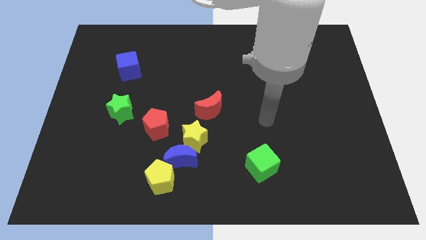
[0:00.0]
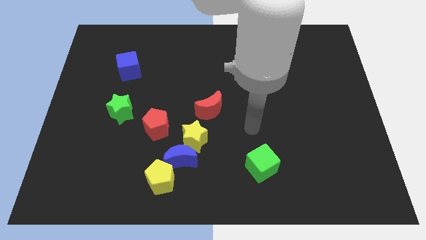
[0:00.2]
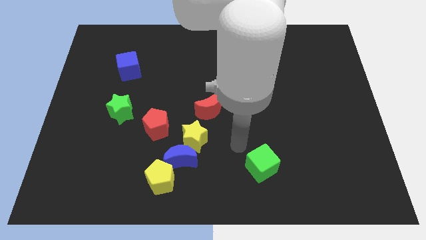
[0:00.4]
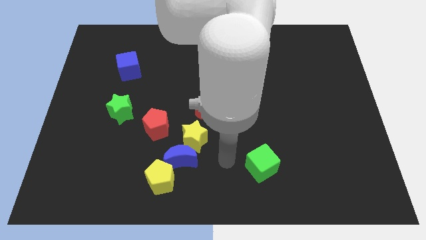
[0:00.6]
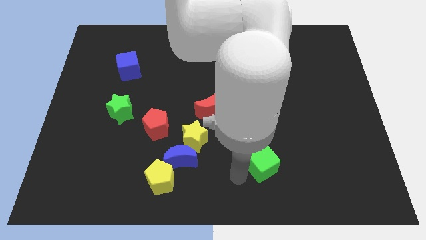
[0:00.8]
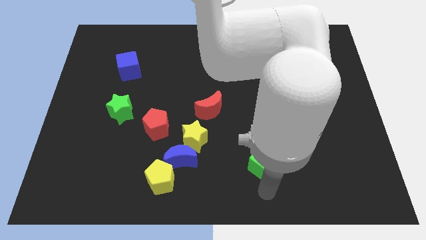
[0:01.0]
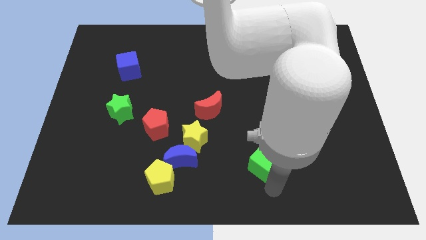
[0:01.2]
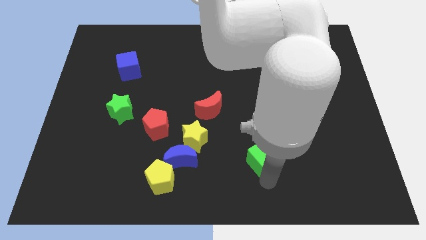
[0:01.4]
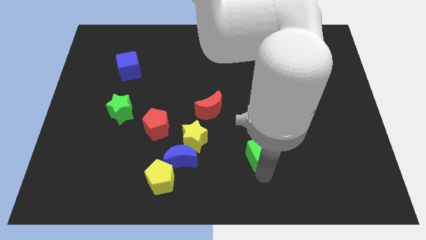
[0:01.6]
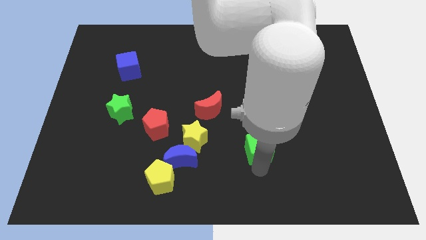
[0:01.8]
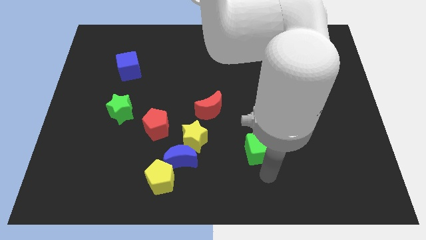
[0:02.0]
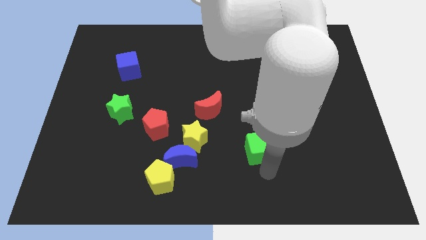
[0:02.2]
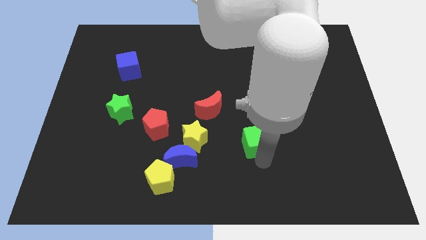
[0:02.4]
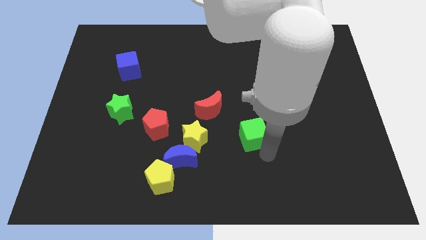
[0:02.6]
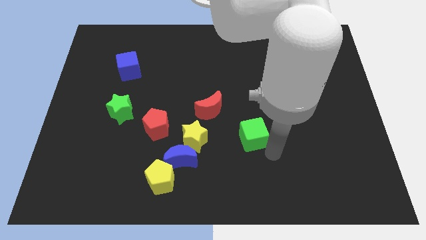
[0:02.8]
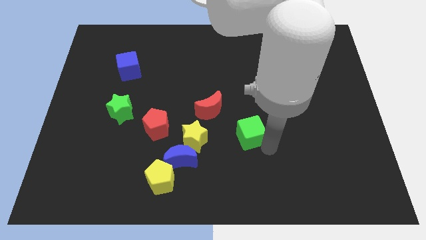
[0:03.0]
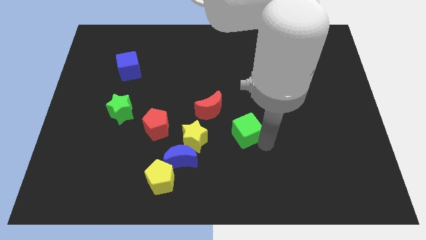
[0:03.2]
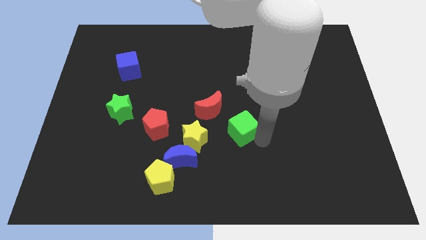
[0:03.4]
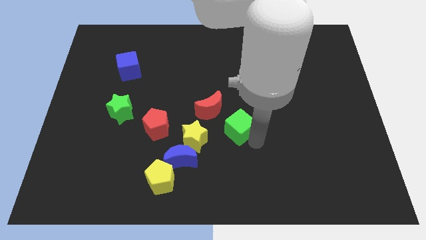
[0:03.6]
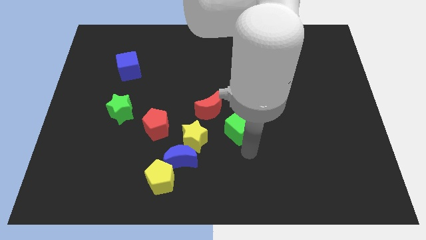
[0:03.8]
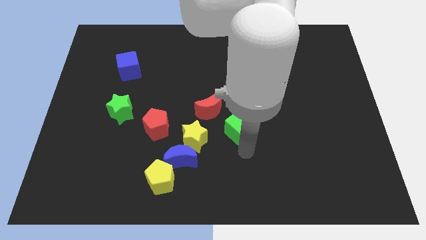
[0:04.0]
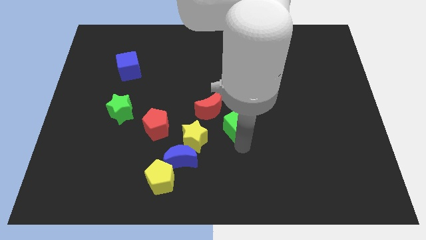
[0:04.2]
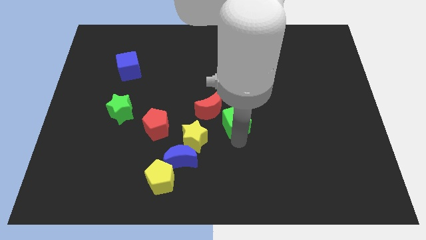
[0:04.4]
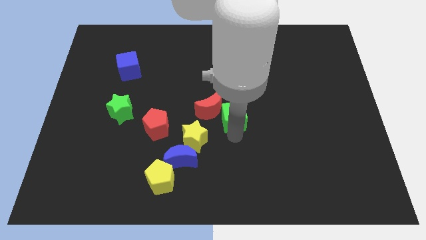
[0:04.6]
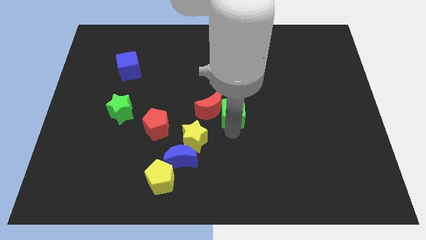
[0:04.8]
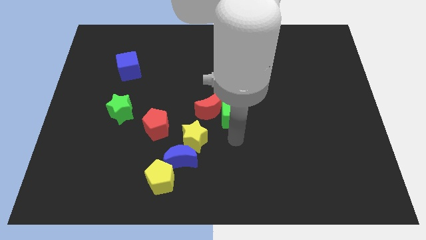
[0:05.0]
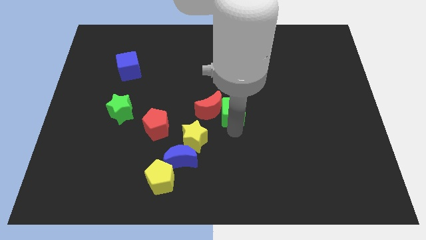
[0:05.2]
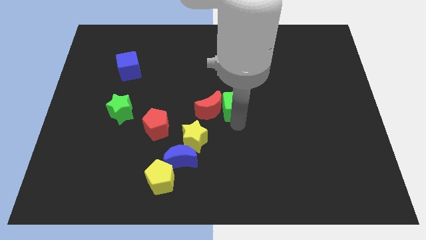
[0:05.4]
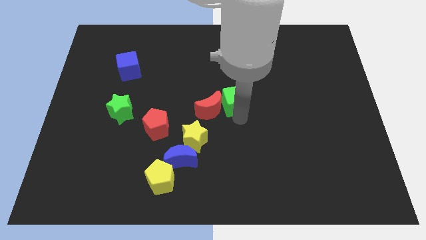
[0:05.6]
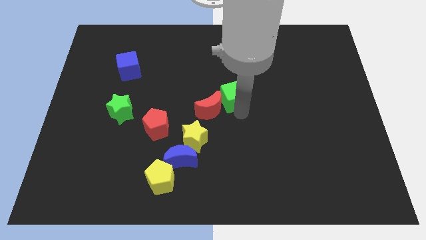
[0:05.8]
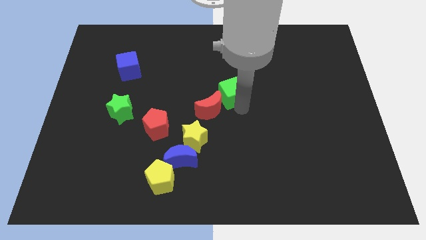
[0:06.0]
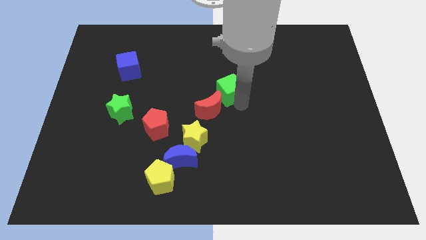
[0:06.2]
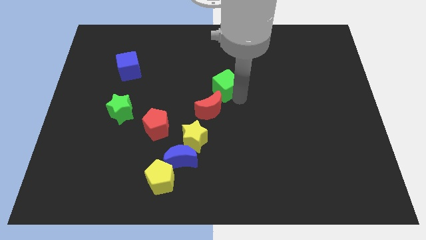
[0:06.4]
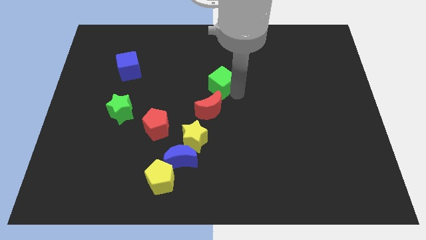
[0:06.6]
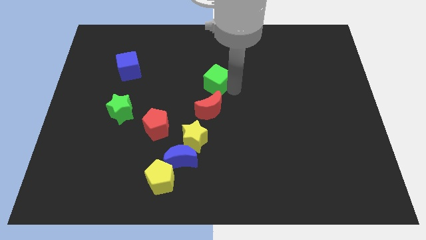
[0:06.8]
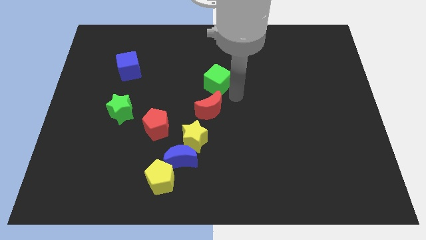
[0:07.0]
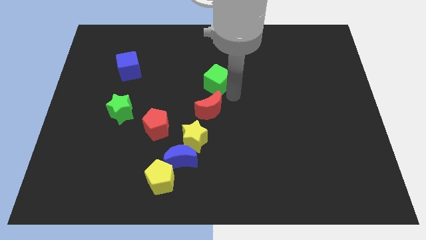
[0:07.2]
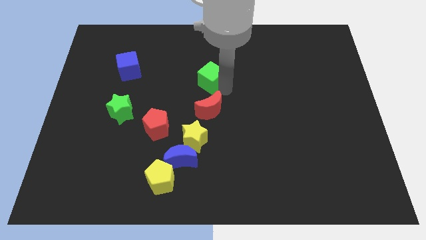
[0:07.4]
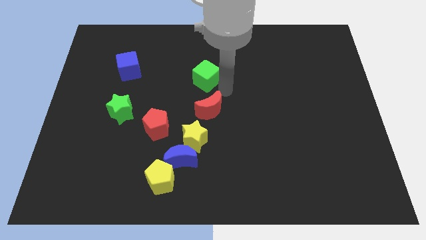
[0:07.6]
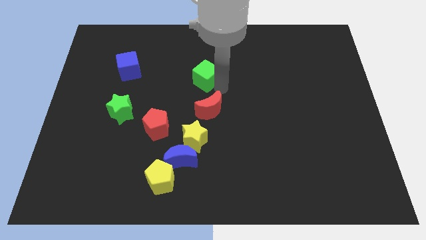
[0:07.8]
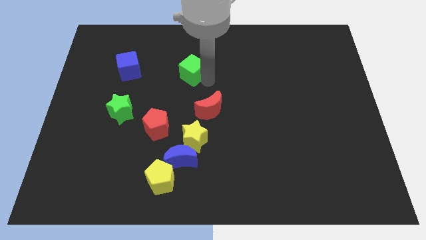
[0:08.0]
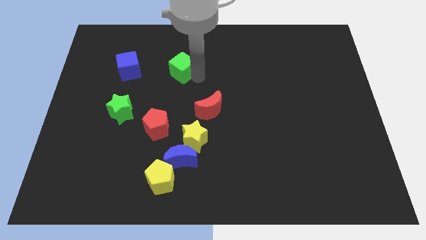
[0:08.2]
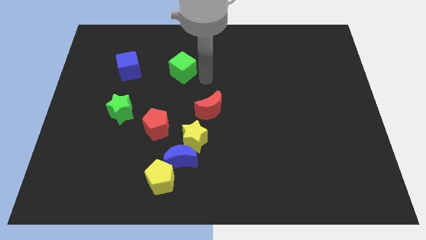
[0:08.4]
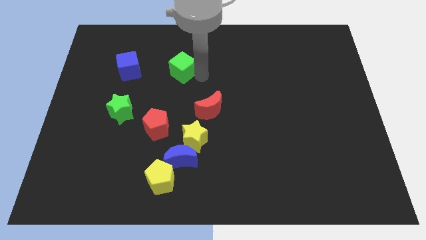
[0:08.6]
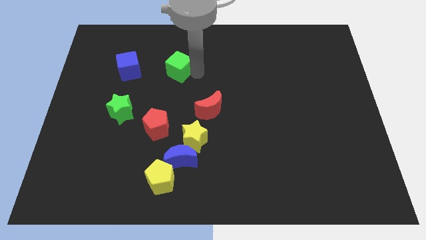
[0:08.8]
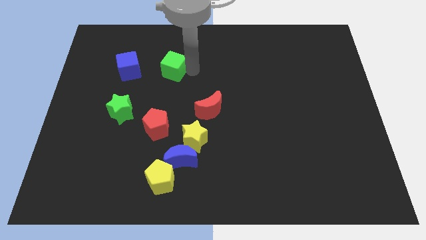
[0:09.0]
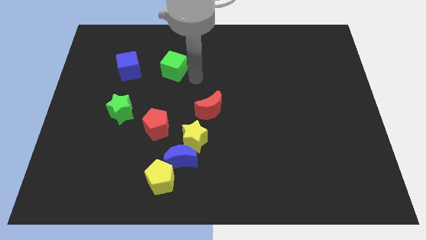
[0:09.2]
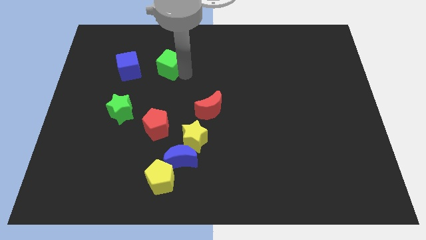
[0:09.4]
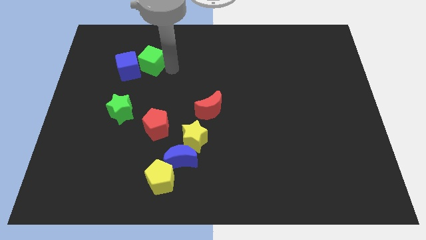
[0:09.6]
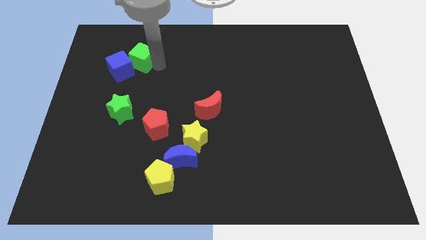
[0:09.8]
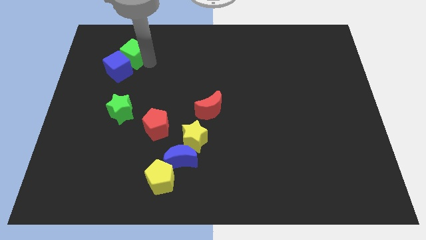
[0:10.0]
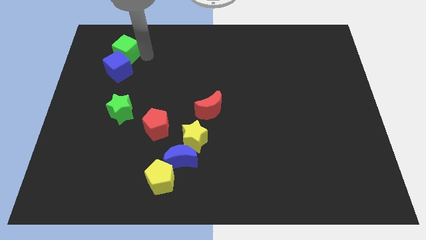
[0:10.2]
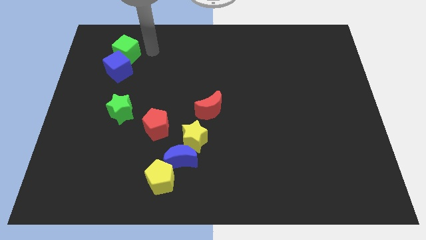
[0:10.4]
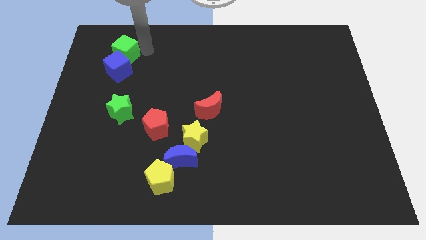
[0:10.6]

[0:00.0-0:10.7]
slide the green cube diagonally up and to the left of the blue cube

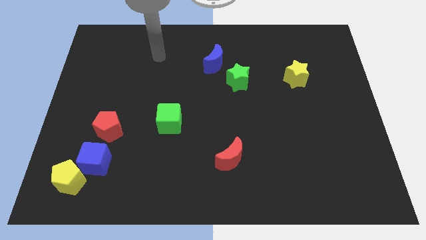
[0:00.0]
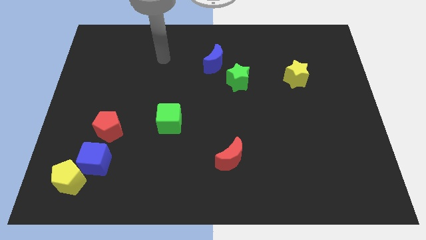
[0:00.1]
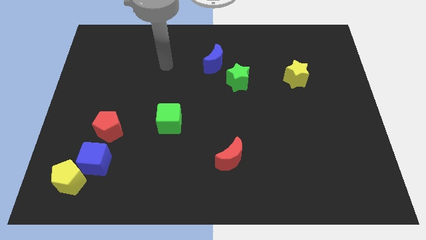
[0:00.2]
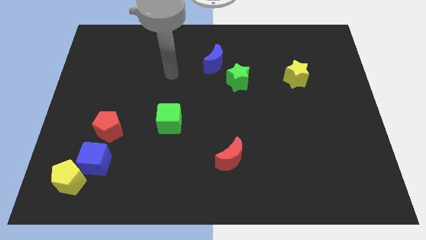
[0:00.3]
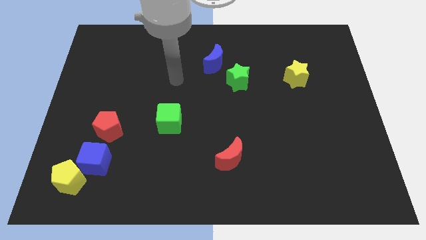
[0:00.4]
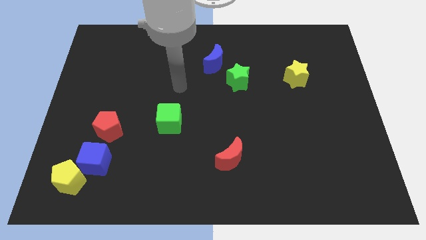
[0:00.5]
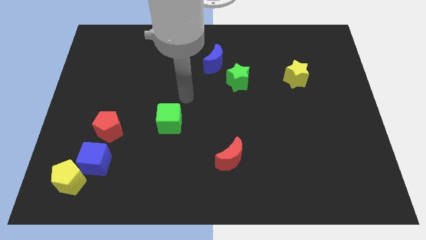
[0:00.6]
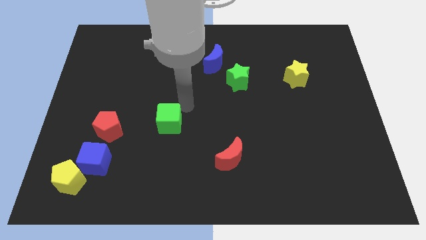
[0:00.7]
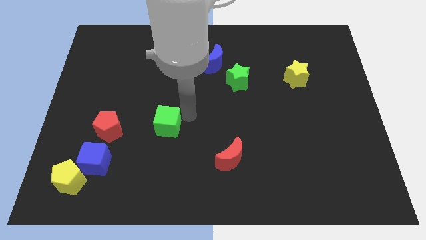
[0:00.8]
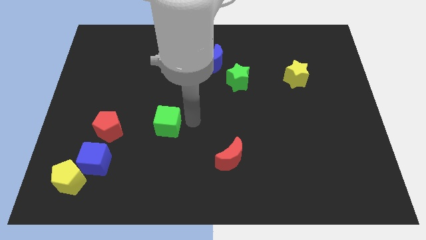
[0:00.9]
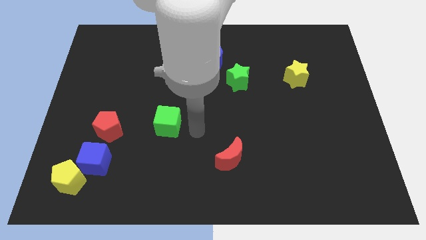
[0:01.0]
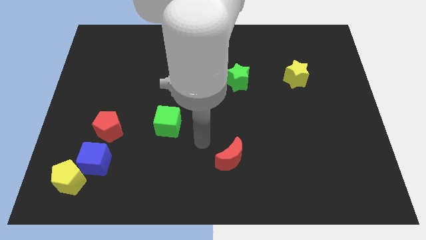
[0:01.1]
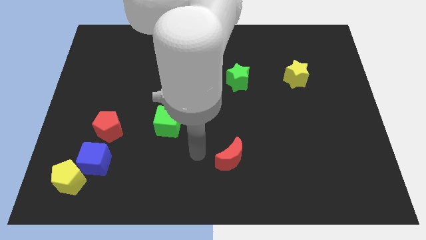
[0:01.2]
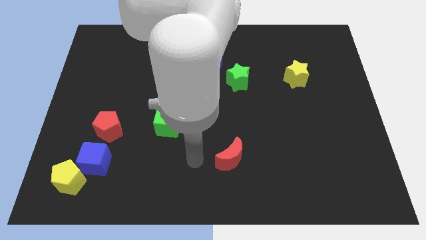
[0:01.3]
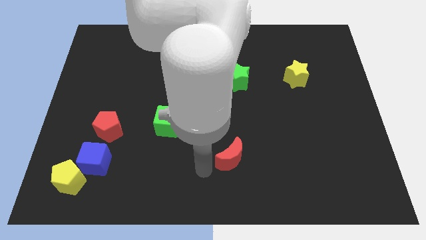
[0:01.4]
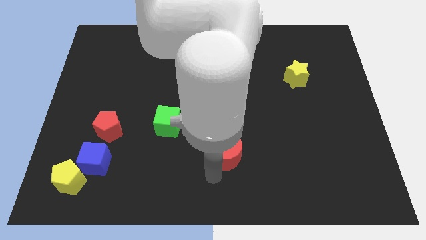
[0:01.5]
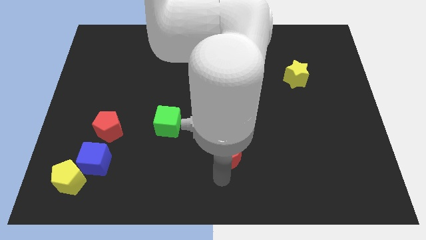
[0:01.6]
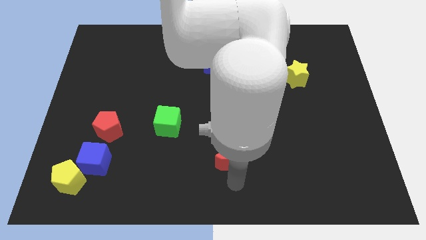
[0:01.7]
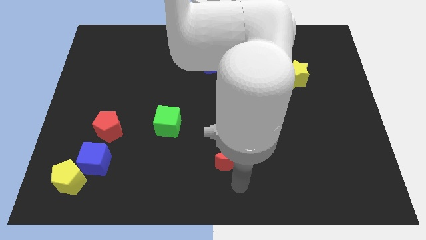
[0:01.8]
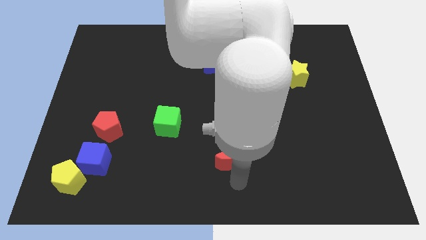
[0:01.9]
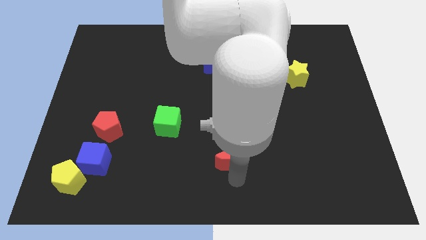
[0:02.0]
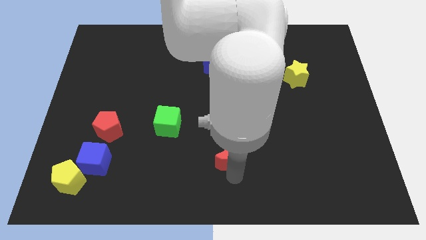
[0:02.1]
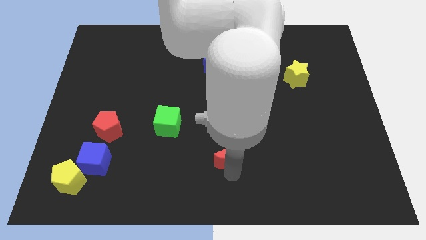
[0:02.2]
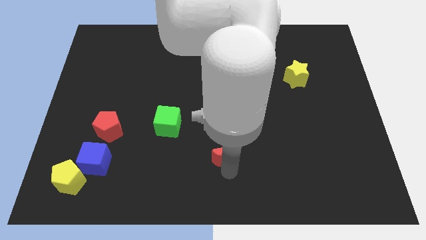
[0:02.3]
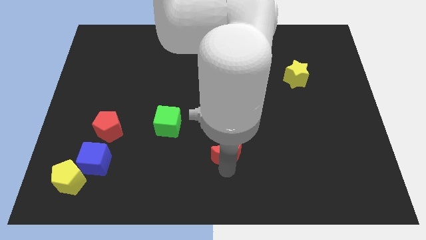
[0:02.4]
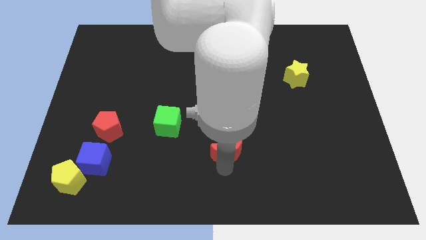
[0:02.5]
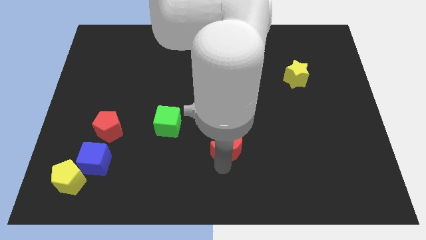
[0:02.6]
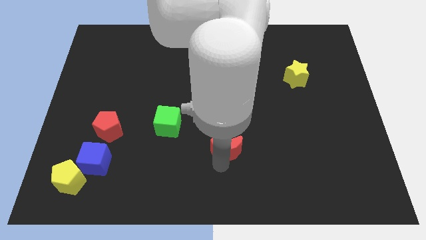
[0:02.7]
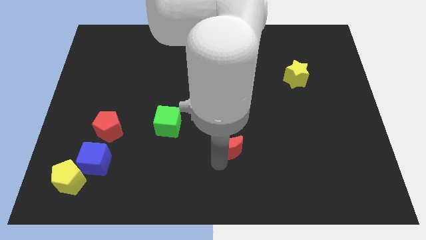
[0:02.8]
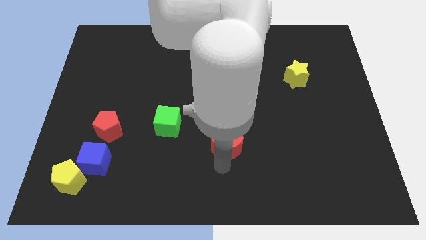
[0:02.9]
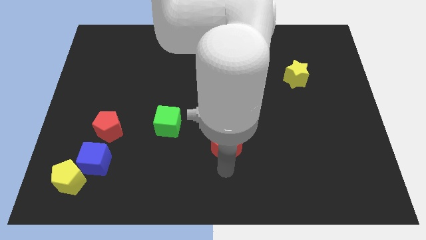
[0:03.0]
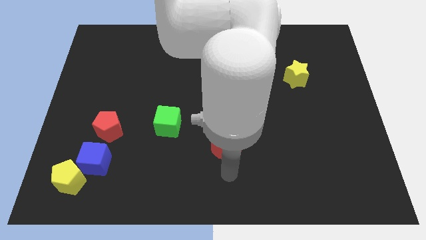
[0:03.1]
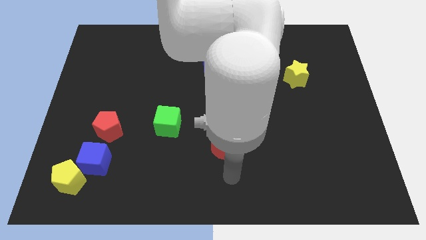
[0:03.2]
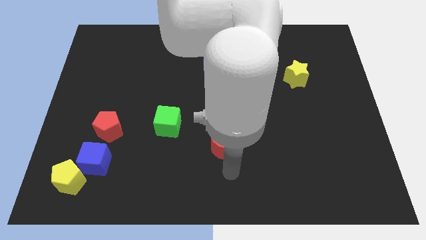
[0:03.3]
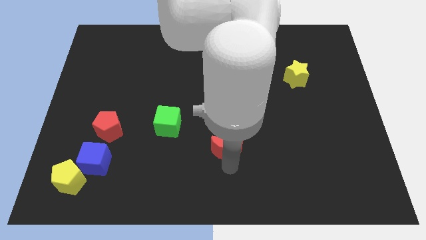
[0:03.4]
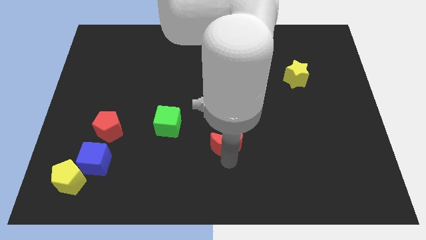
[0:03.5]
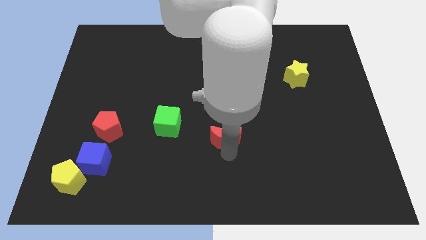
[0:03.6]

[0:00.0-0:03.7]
push the red moon to the right side of the green cube
